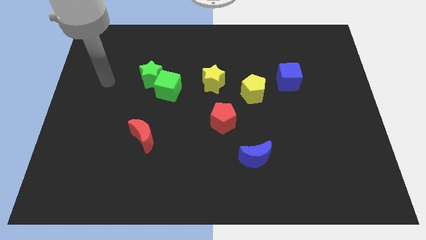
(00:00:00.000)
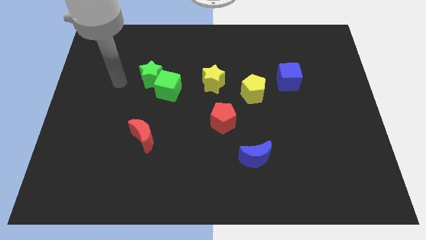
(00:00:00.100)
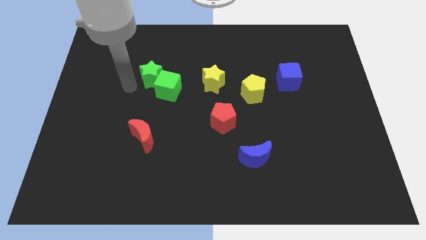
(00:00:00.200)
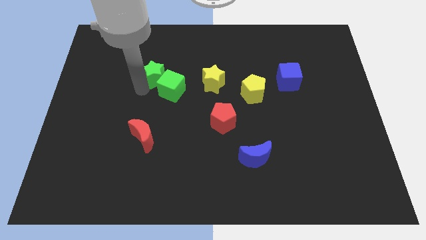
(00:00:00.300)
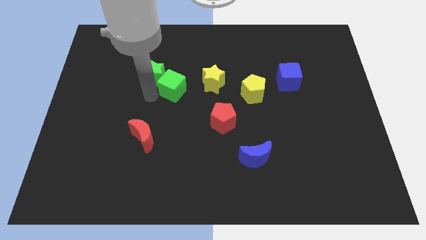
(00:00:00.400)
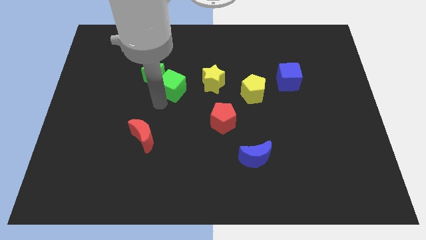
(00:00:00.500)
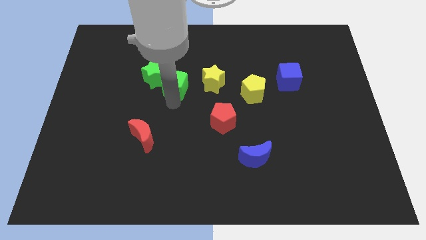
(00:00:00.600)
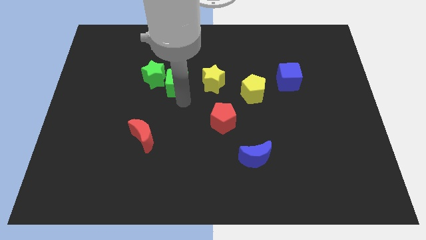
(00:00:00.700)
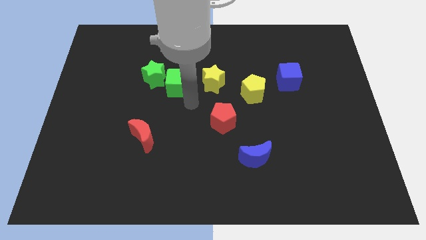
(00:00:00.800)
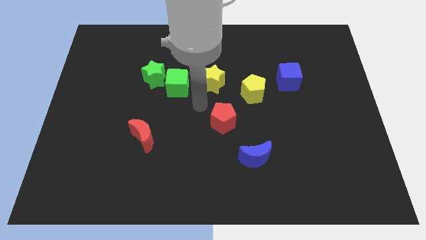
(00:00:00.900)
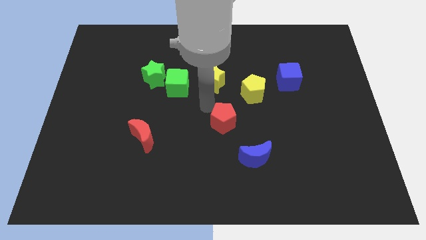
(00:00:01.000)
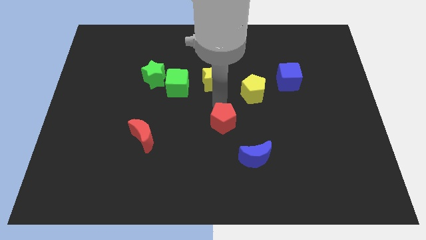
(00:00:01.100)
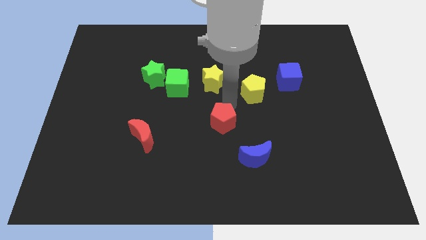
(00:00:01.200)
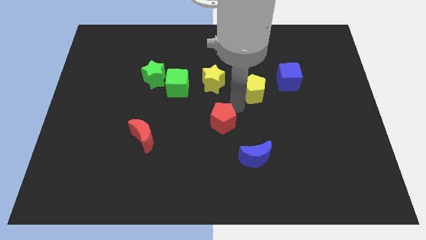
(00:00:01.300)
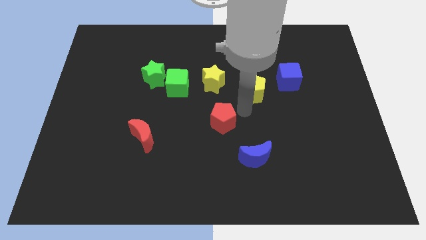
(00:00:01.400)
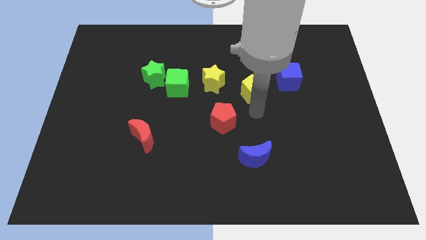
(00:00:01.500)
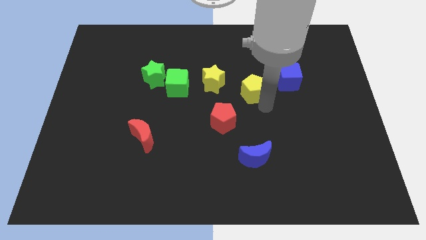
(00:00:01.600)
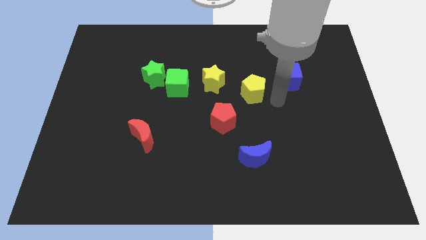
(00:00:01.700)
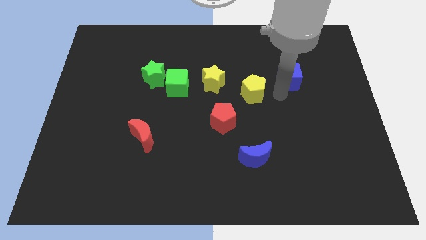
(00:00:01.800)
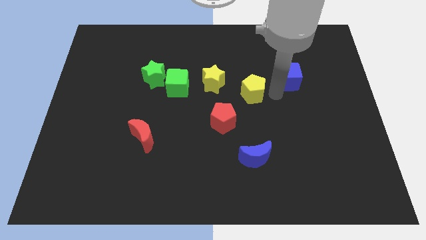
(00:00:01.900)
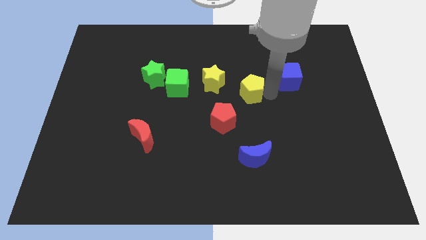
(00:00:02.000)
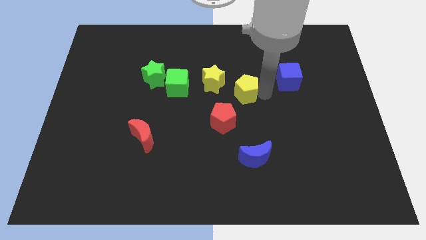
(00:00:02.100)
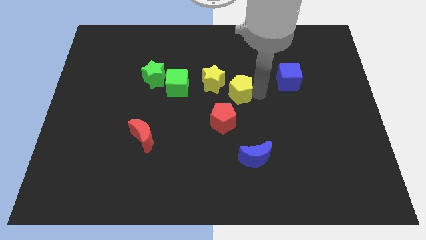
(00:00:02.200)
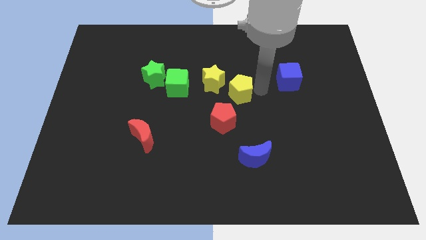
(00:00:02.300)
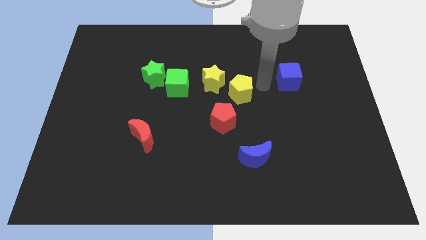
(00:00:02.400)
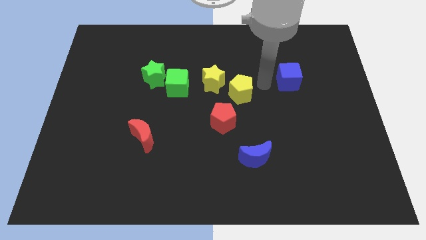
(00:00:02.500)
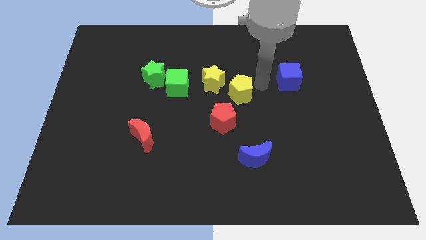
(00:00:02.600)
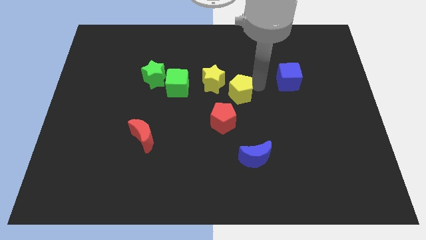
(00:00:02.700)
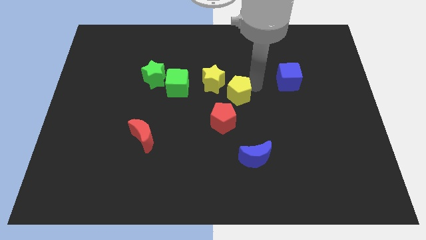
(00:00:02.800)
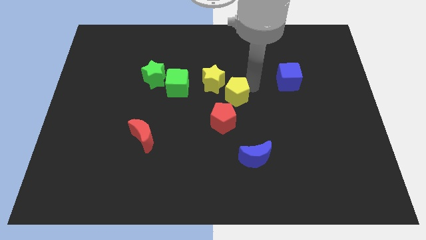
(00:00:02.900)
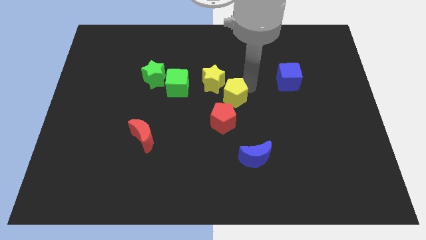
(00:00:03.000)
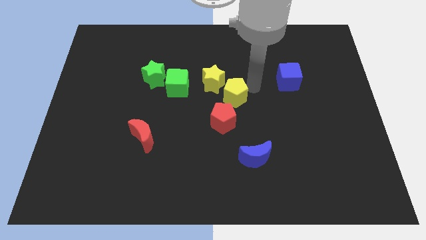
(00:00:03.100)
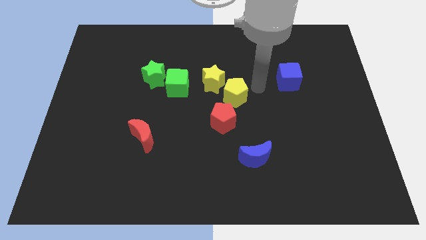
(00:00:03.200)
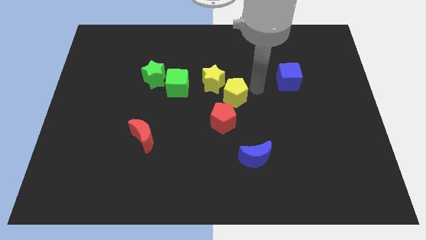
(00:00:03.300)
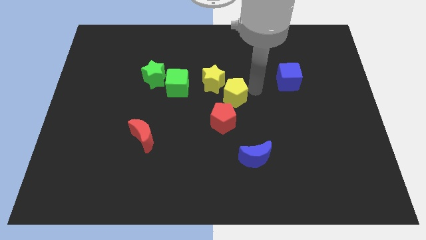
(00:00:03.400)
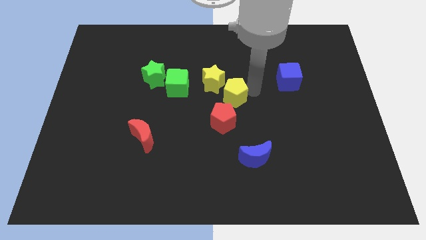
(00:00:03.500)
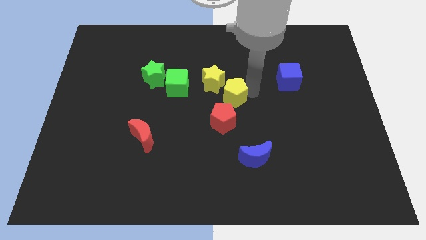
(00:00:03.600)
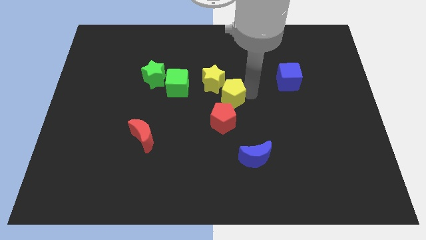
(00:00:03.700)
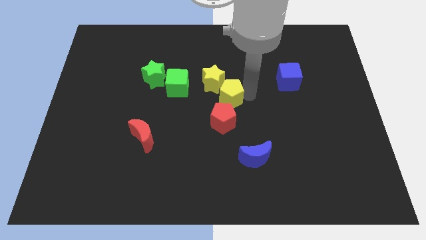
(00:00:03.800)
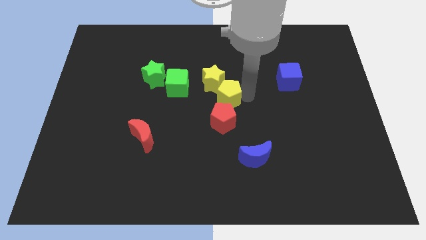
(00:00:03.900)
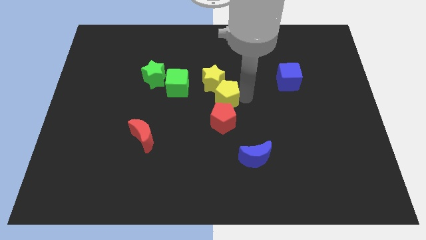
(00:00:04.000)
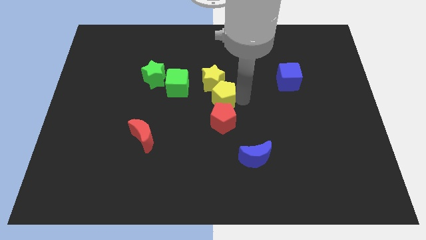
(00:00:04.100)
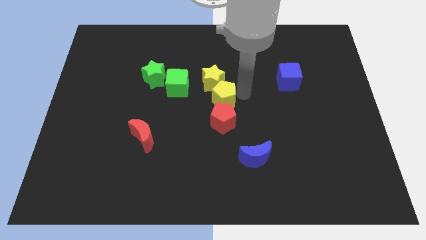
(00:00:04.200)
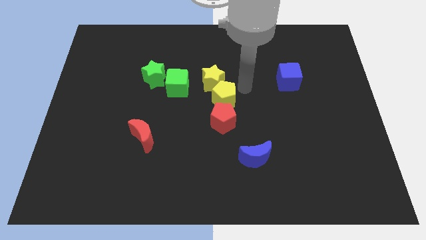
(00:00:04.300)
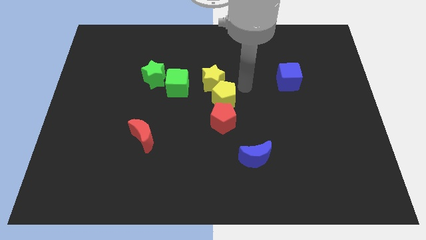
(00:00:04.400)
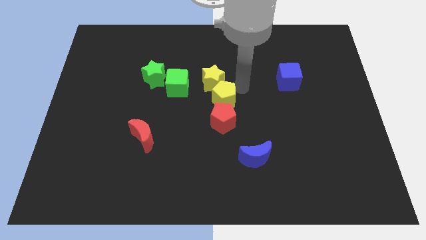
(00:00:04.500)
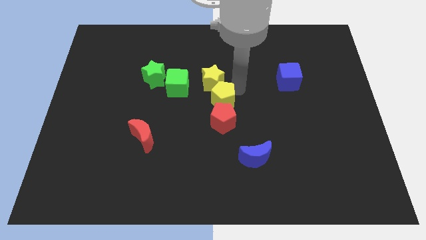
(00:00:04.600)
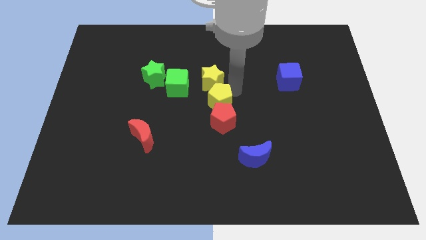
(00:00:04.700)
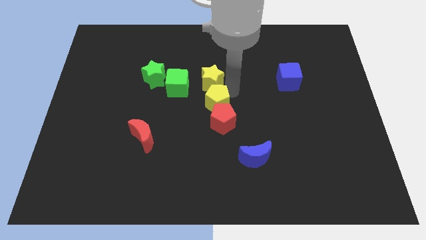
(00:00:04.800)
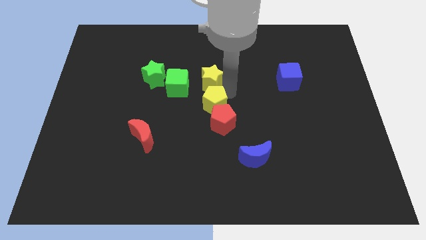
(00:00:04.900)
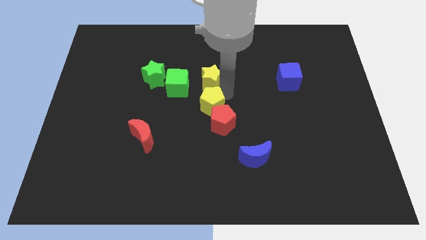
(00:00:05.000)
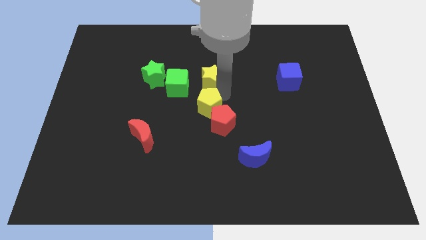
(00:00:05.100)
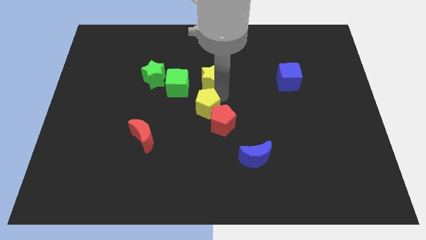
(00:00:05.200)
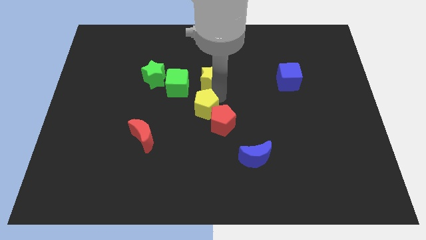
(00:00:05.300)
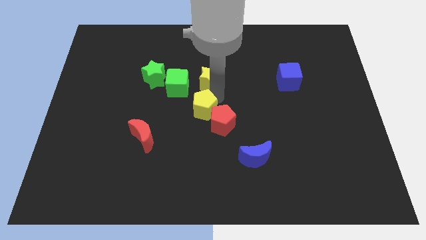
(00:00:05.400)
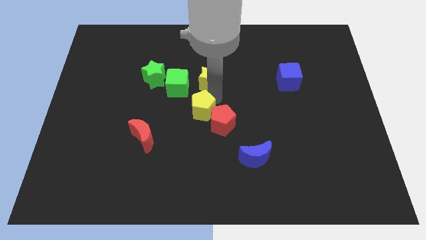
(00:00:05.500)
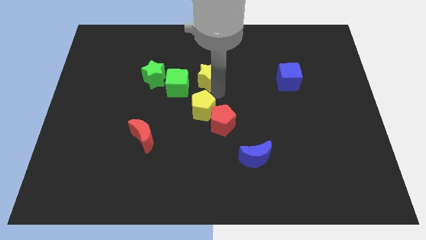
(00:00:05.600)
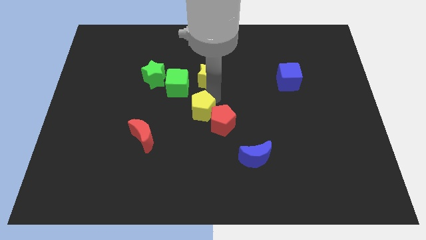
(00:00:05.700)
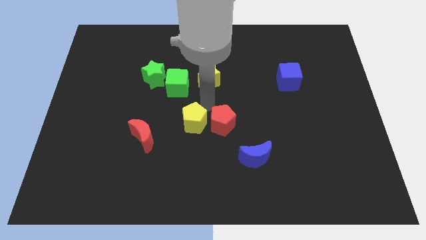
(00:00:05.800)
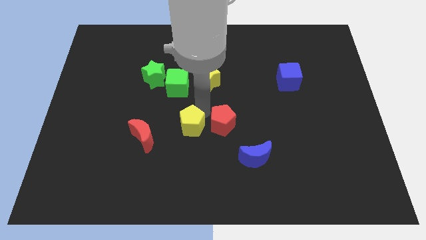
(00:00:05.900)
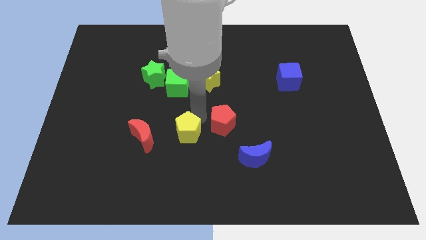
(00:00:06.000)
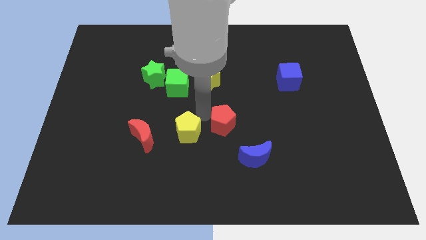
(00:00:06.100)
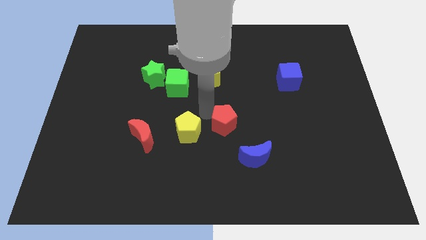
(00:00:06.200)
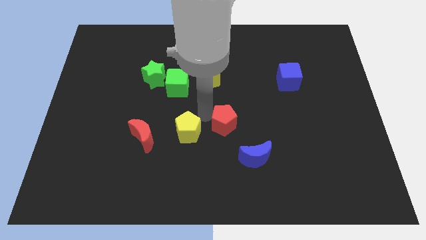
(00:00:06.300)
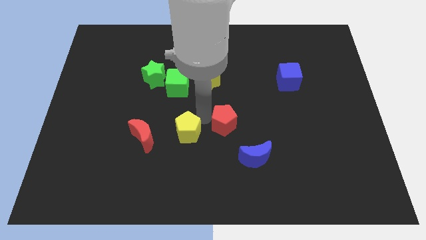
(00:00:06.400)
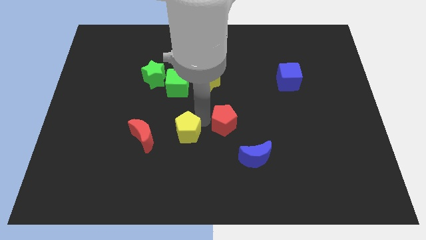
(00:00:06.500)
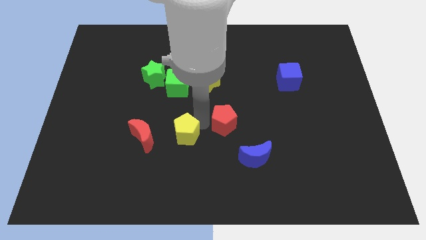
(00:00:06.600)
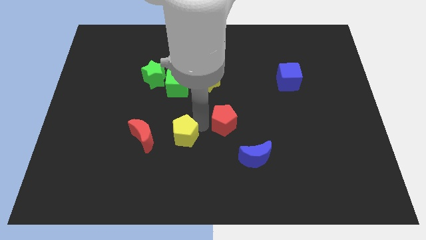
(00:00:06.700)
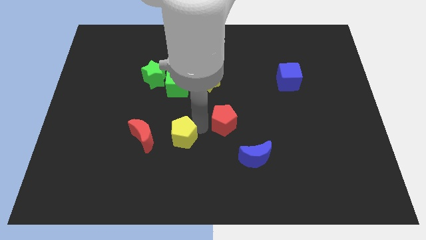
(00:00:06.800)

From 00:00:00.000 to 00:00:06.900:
move the yellow pentagon downwards and to the left

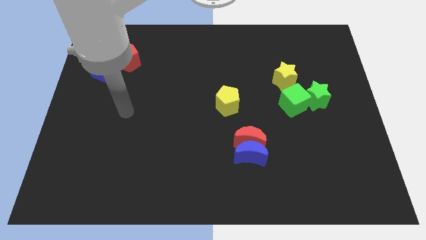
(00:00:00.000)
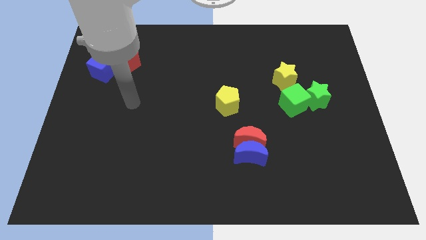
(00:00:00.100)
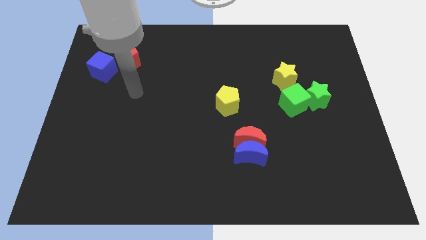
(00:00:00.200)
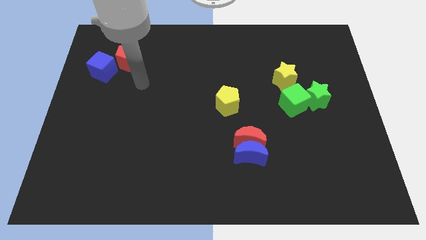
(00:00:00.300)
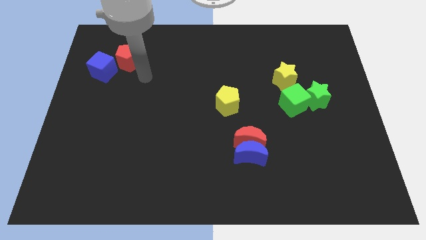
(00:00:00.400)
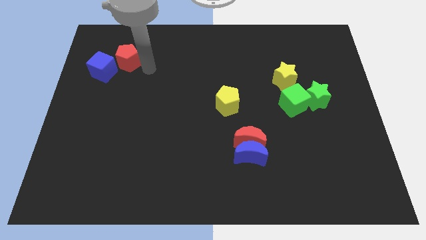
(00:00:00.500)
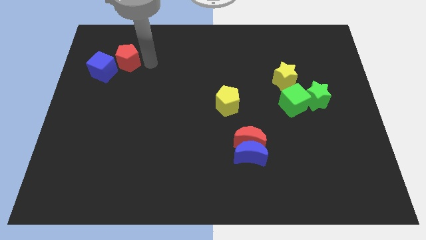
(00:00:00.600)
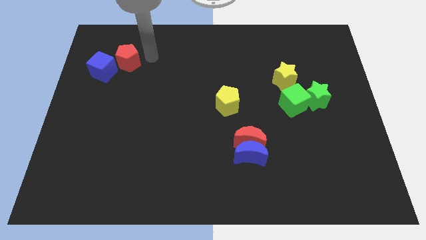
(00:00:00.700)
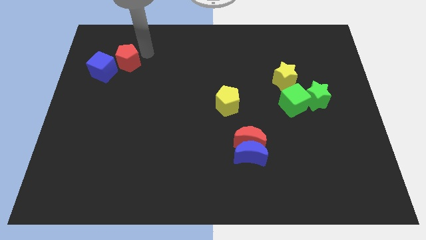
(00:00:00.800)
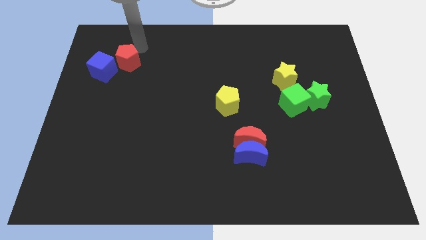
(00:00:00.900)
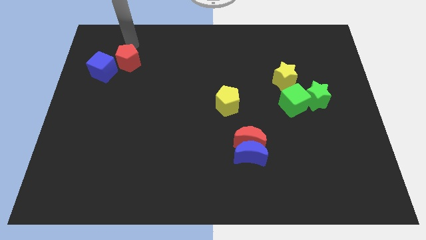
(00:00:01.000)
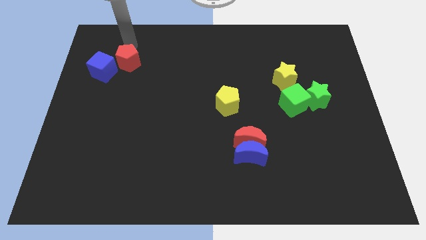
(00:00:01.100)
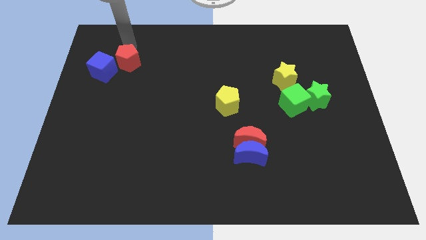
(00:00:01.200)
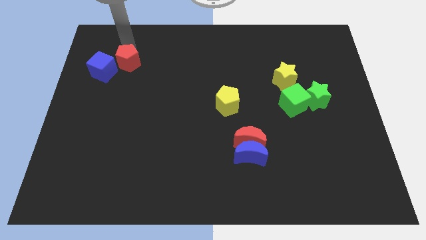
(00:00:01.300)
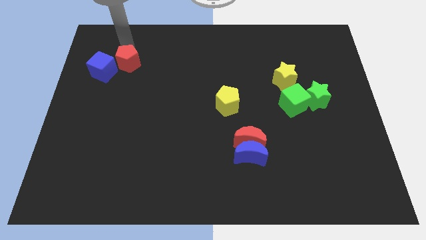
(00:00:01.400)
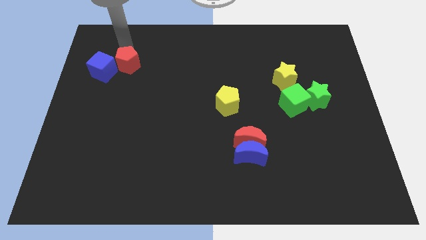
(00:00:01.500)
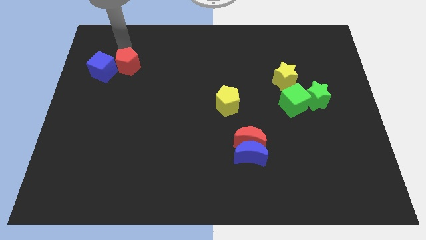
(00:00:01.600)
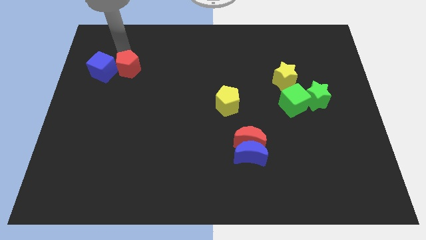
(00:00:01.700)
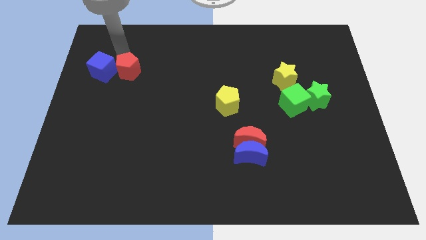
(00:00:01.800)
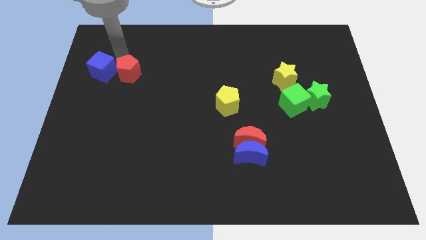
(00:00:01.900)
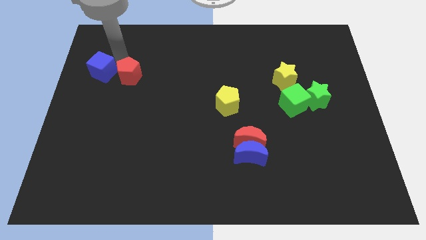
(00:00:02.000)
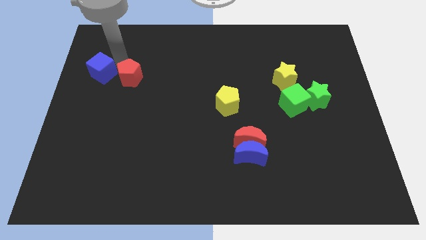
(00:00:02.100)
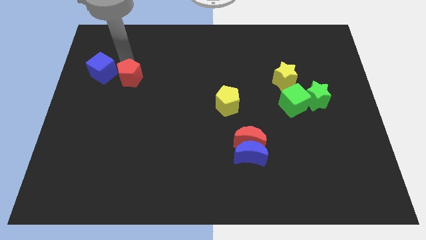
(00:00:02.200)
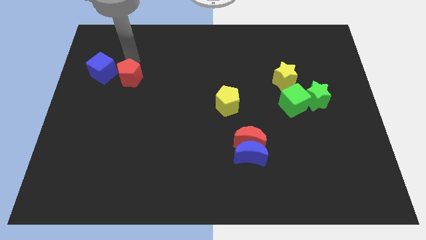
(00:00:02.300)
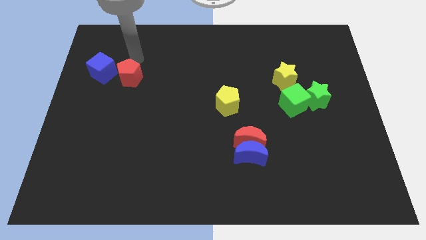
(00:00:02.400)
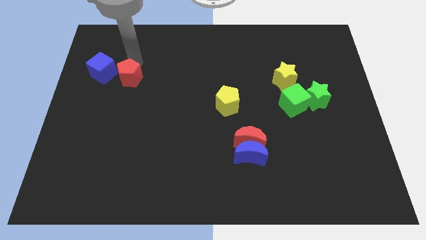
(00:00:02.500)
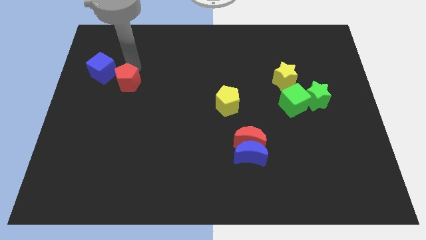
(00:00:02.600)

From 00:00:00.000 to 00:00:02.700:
slide the red pentagon down a little
